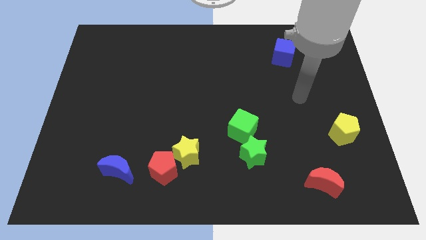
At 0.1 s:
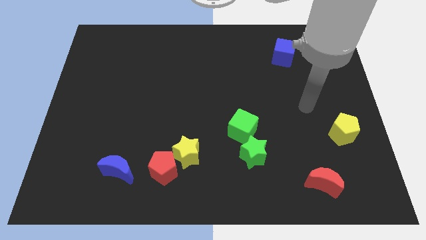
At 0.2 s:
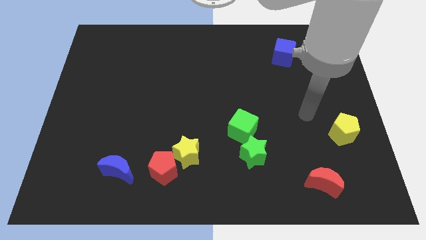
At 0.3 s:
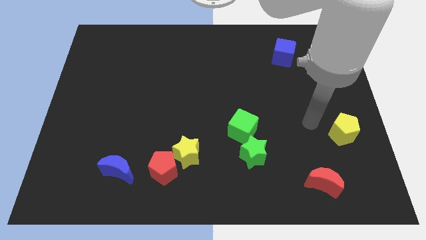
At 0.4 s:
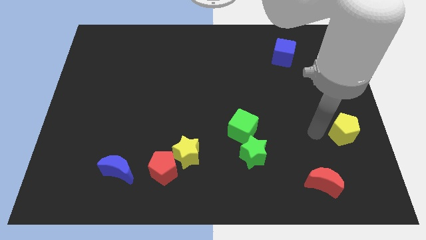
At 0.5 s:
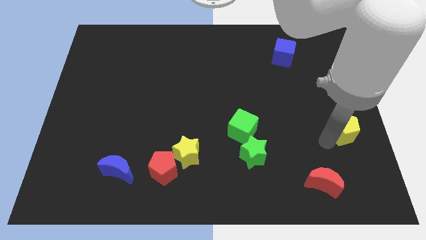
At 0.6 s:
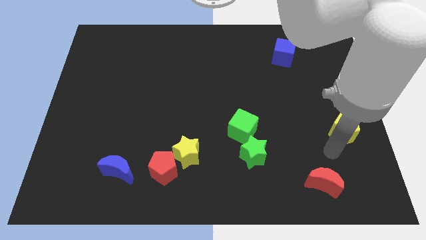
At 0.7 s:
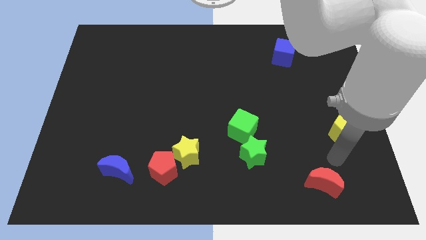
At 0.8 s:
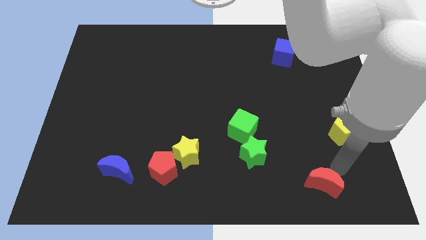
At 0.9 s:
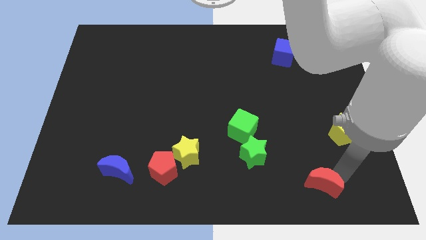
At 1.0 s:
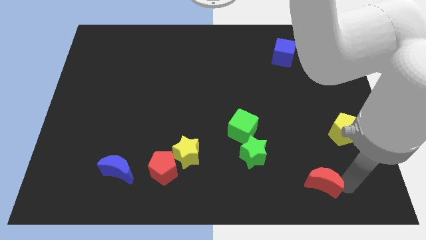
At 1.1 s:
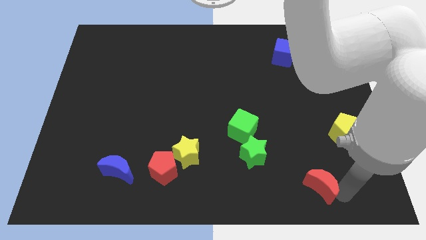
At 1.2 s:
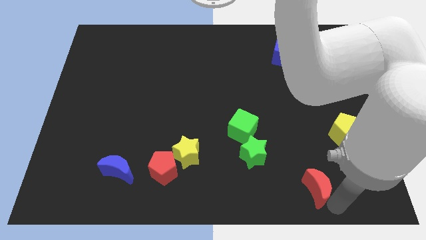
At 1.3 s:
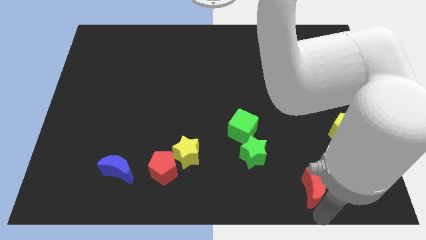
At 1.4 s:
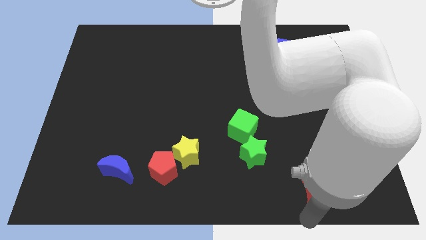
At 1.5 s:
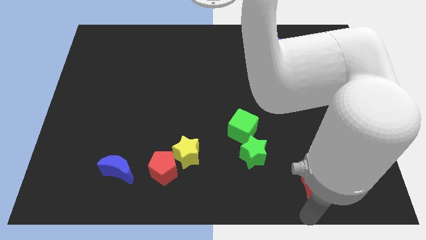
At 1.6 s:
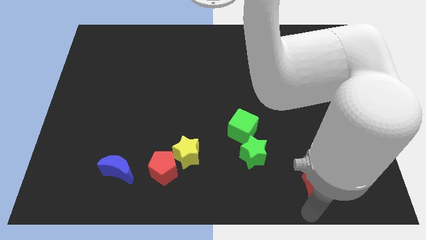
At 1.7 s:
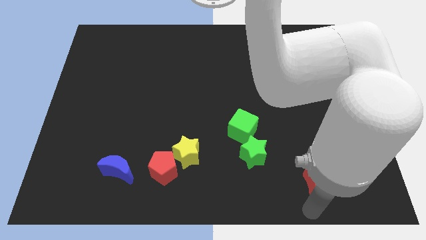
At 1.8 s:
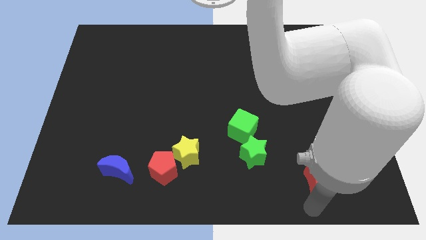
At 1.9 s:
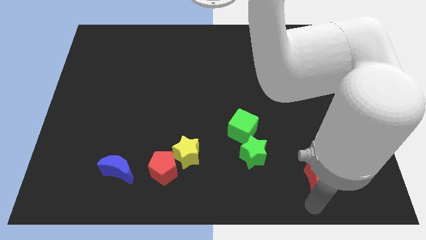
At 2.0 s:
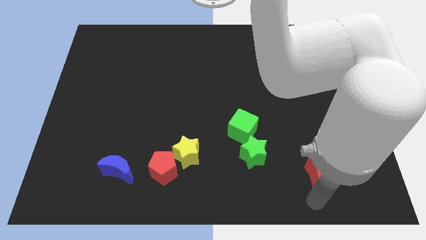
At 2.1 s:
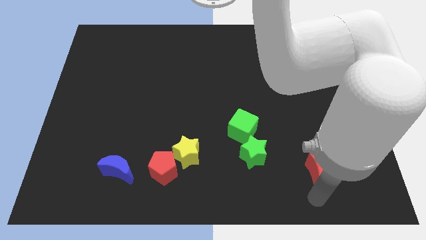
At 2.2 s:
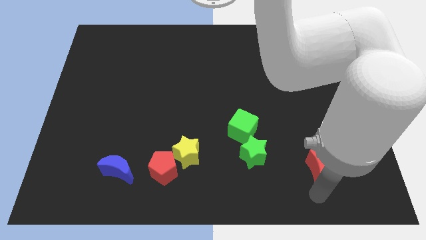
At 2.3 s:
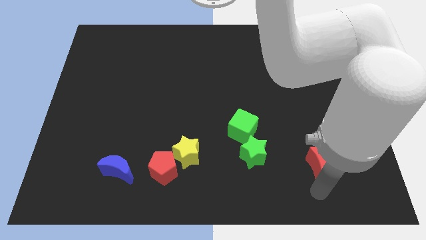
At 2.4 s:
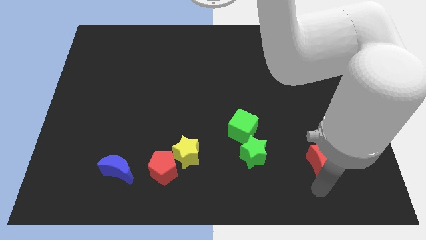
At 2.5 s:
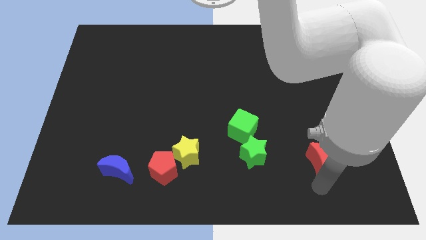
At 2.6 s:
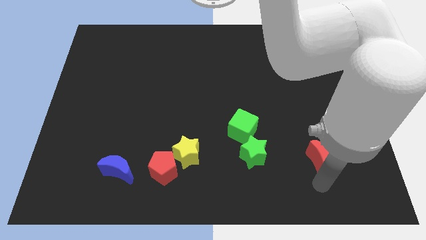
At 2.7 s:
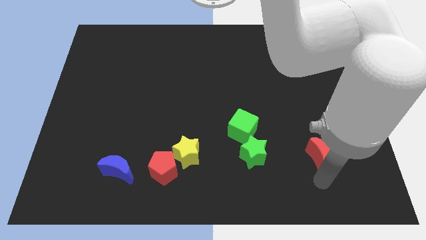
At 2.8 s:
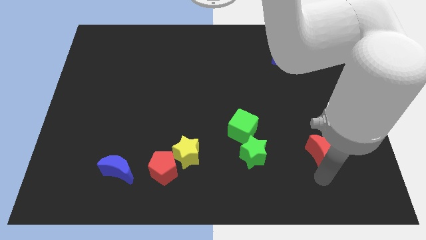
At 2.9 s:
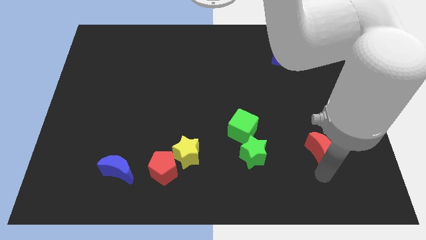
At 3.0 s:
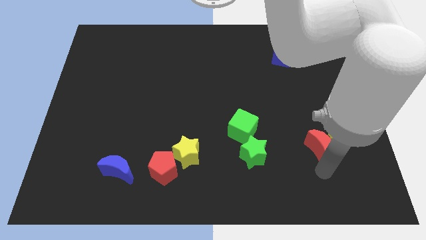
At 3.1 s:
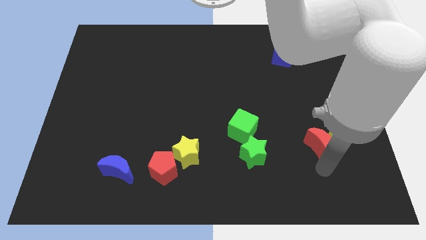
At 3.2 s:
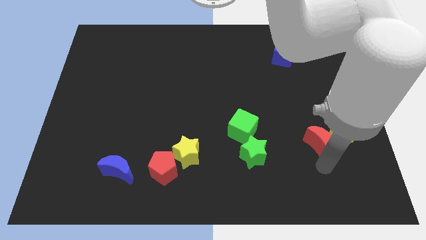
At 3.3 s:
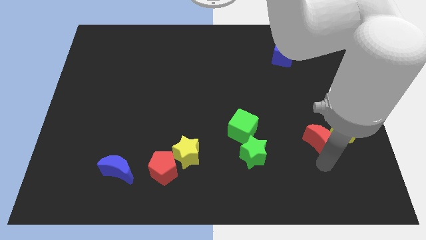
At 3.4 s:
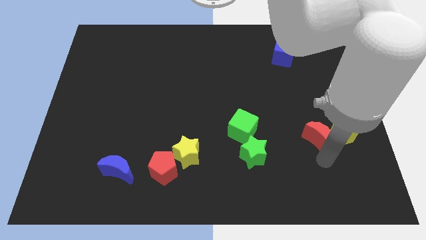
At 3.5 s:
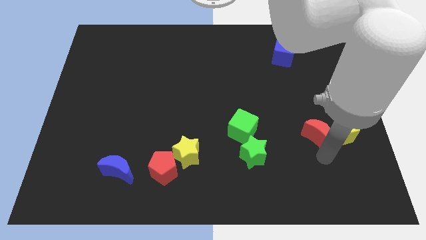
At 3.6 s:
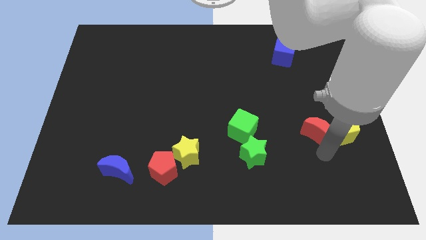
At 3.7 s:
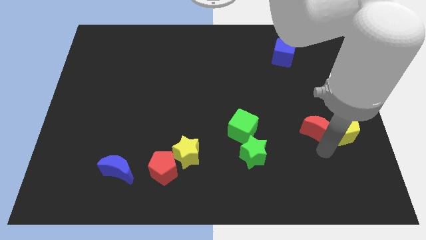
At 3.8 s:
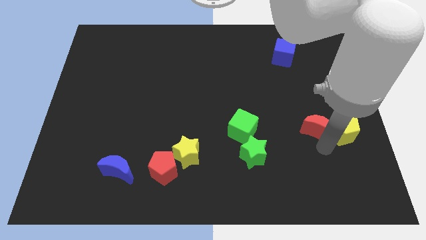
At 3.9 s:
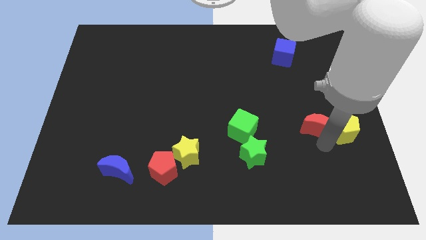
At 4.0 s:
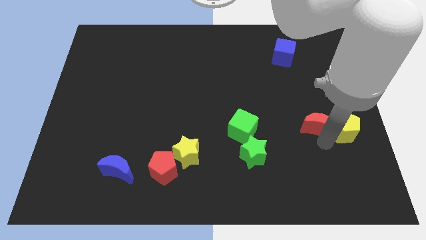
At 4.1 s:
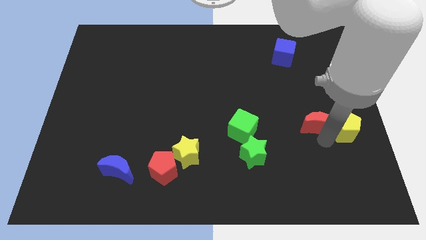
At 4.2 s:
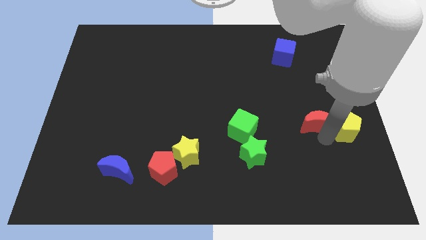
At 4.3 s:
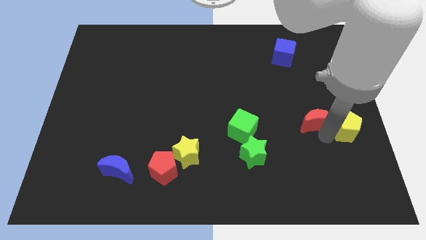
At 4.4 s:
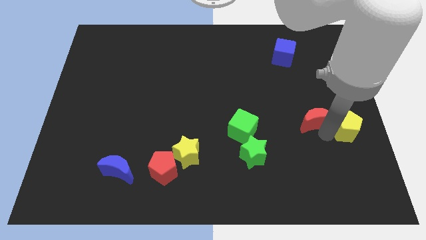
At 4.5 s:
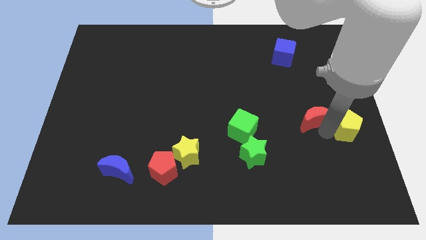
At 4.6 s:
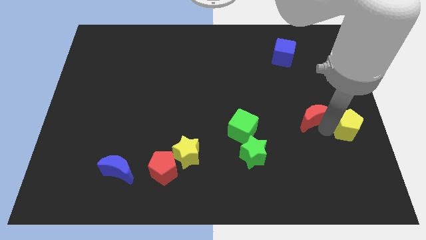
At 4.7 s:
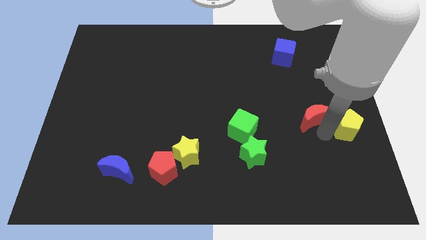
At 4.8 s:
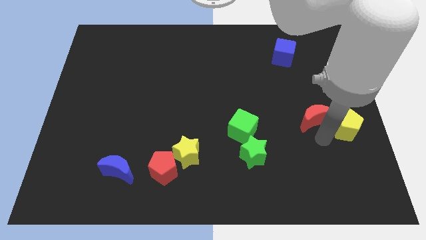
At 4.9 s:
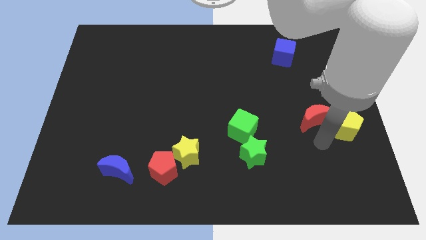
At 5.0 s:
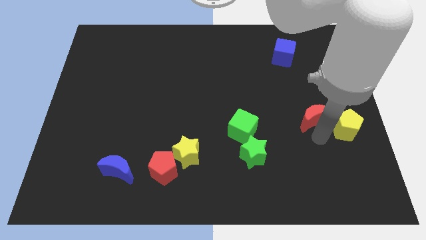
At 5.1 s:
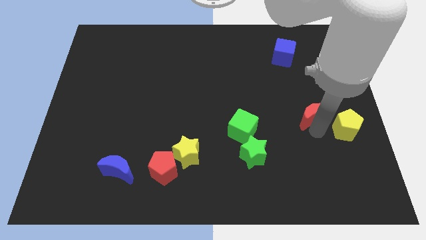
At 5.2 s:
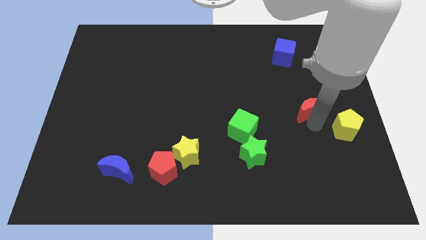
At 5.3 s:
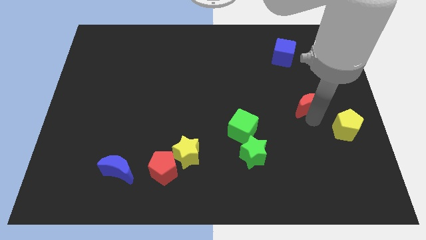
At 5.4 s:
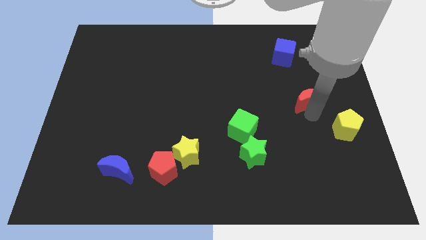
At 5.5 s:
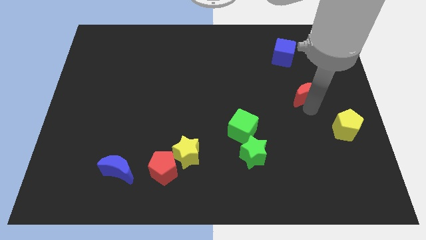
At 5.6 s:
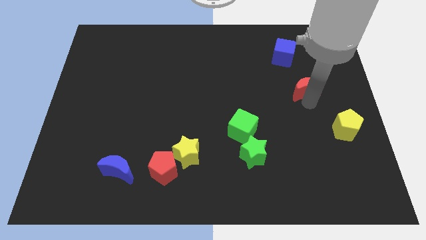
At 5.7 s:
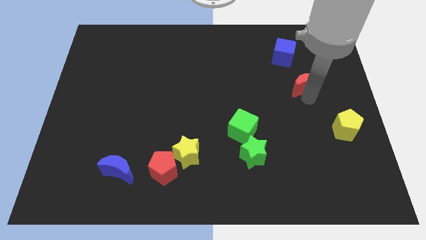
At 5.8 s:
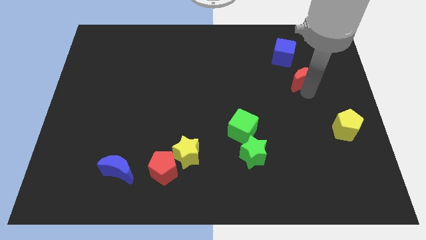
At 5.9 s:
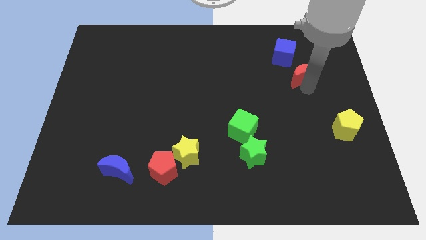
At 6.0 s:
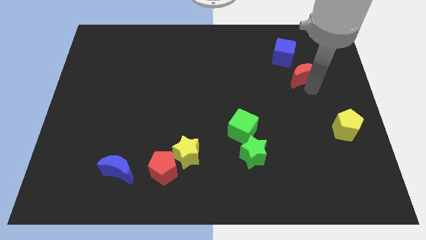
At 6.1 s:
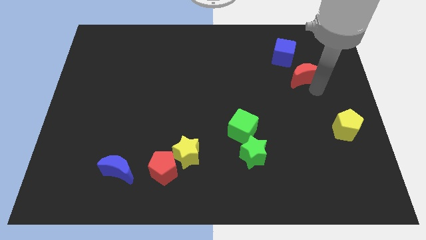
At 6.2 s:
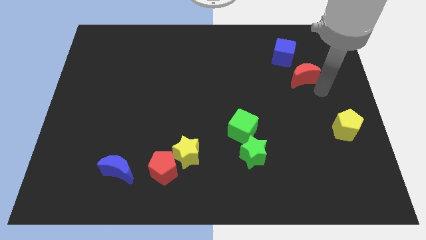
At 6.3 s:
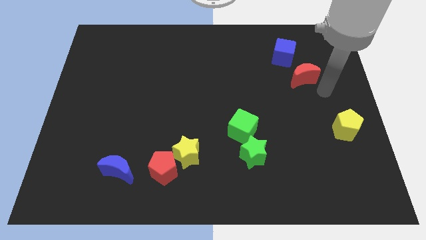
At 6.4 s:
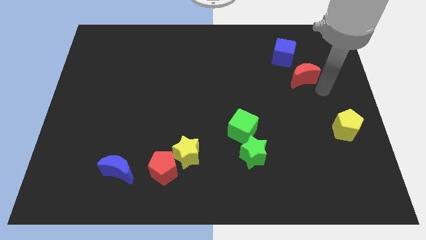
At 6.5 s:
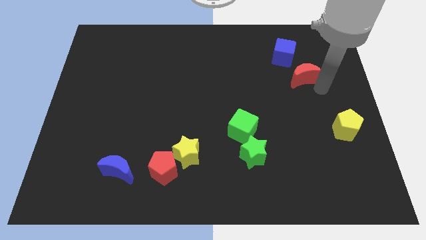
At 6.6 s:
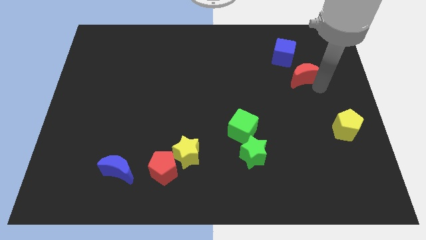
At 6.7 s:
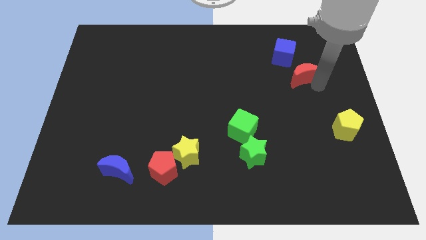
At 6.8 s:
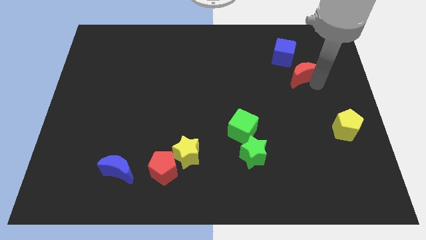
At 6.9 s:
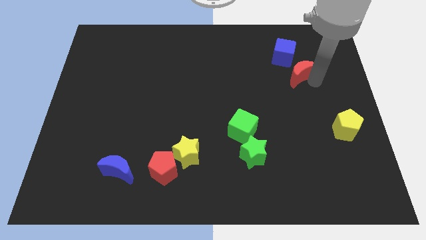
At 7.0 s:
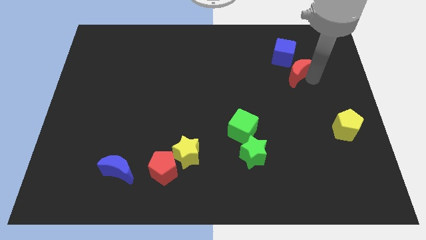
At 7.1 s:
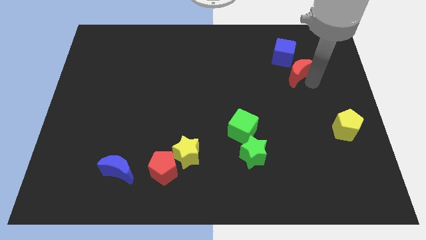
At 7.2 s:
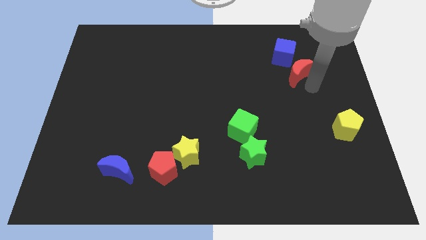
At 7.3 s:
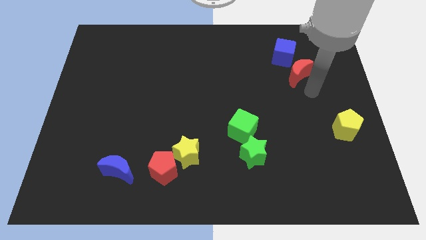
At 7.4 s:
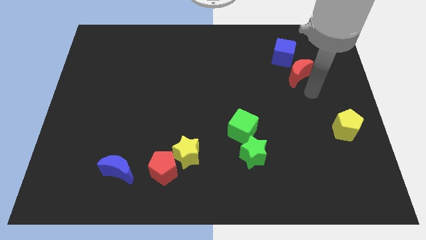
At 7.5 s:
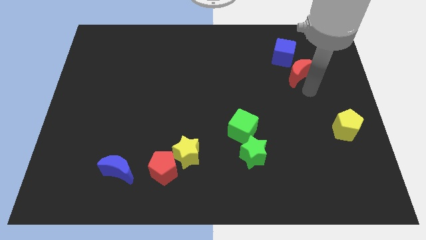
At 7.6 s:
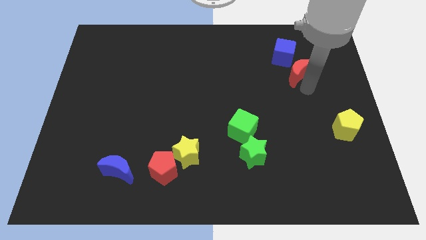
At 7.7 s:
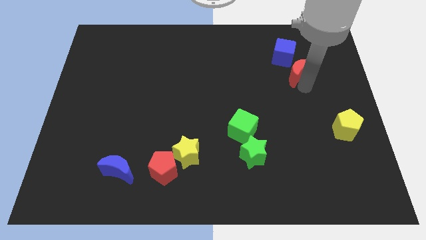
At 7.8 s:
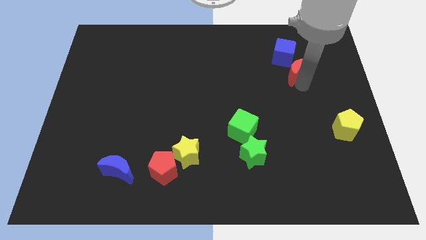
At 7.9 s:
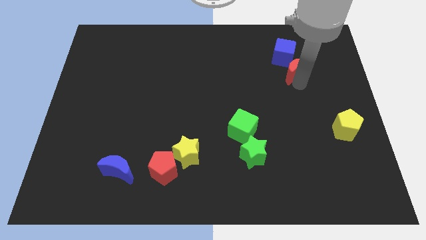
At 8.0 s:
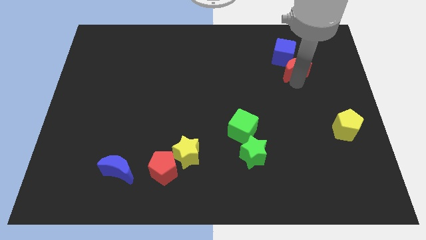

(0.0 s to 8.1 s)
move the red moon next to the blue cube

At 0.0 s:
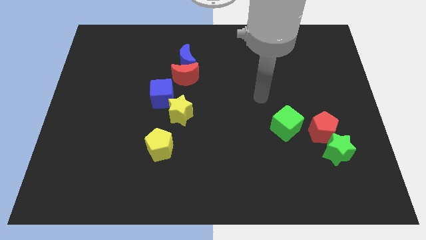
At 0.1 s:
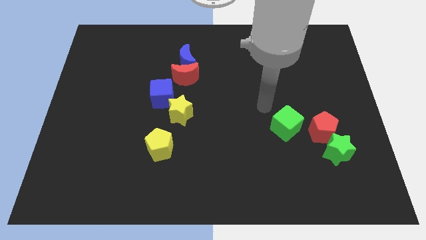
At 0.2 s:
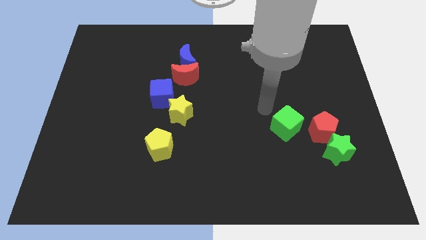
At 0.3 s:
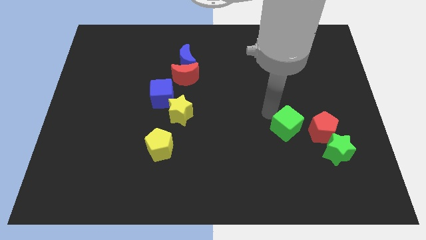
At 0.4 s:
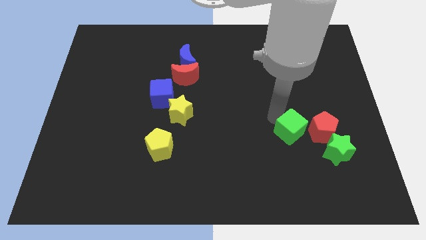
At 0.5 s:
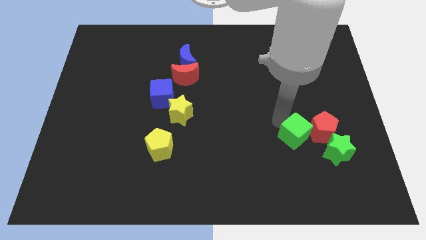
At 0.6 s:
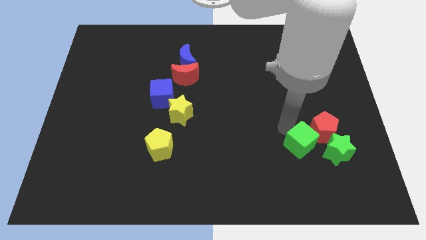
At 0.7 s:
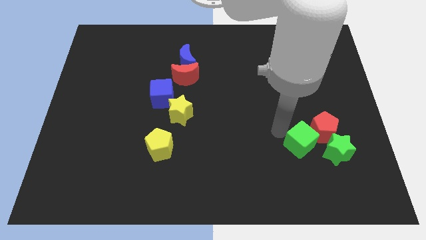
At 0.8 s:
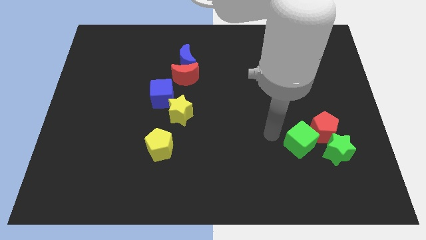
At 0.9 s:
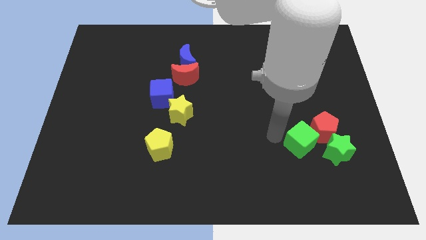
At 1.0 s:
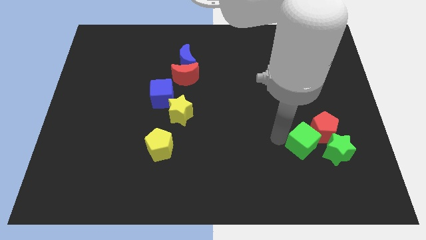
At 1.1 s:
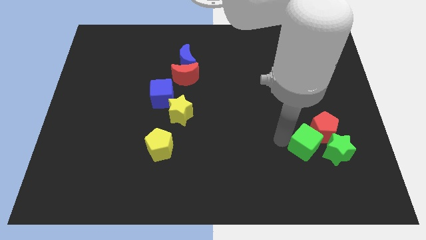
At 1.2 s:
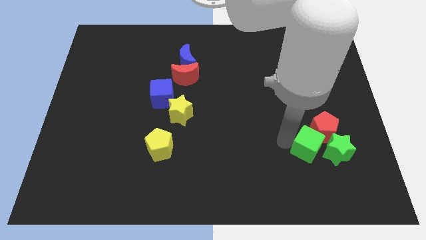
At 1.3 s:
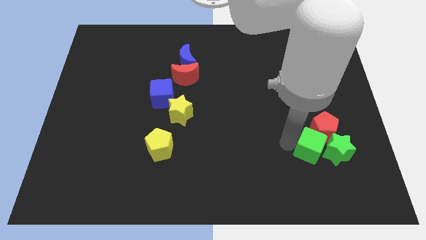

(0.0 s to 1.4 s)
put the green cube next to the green star
